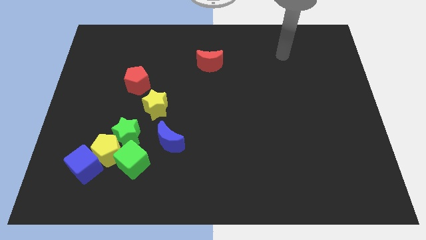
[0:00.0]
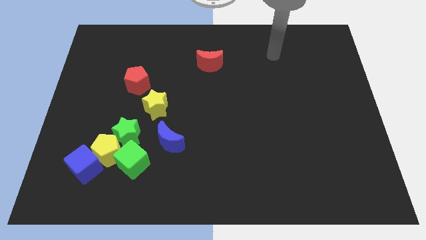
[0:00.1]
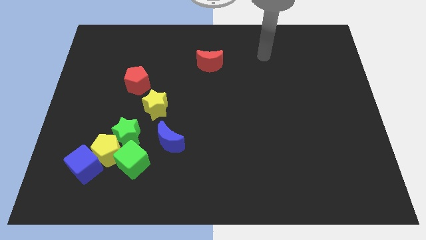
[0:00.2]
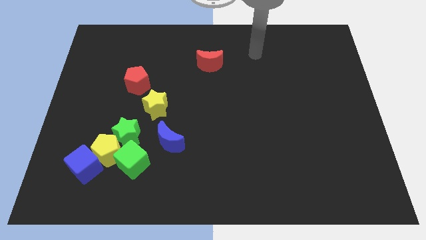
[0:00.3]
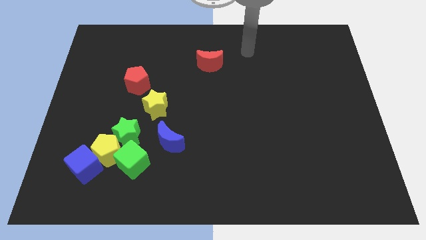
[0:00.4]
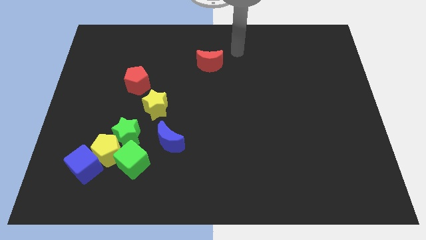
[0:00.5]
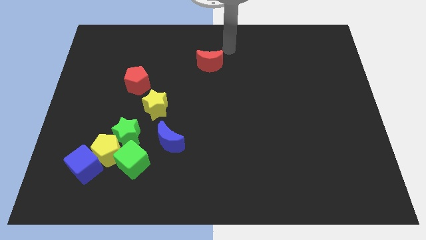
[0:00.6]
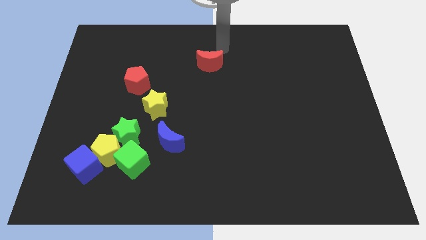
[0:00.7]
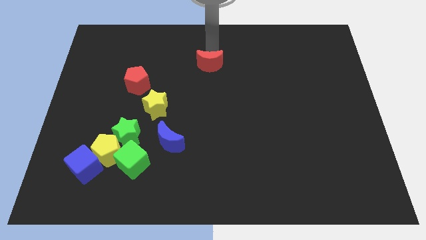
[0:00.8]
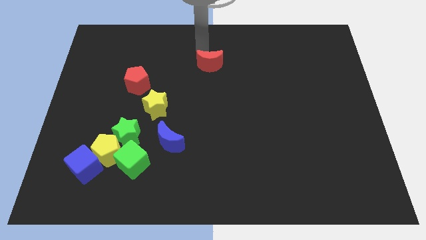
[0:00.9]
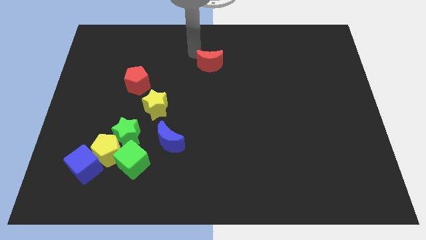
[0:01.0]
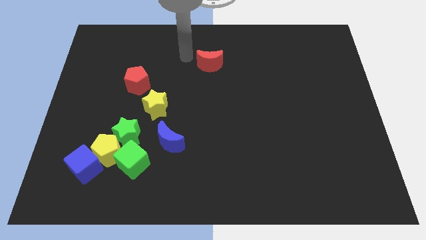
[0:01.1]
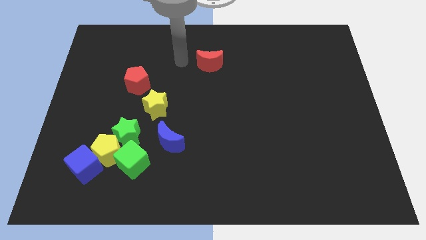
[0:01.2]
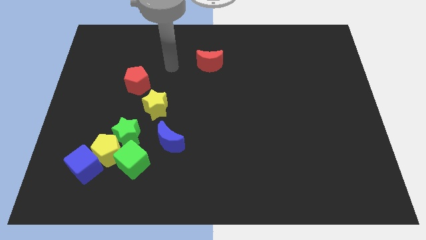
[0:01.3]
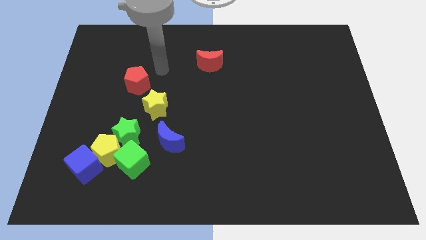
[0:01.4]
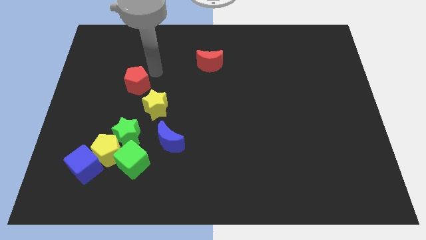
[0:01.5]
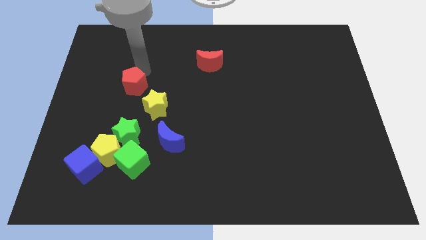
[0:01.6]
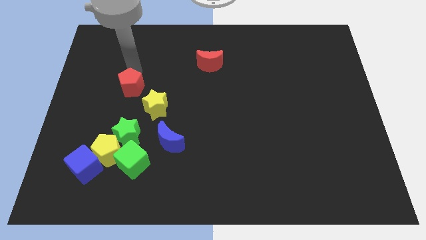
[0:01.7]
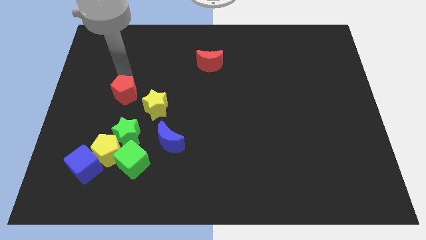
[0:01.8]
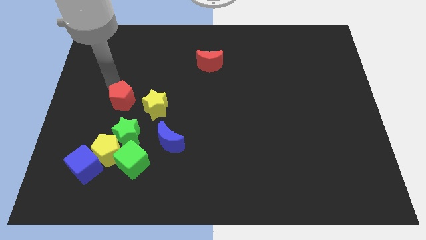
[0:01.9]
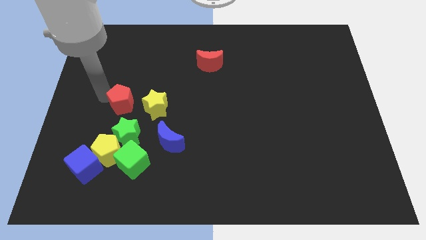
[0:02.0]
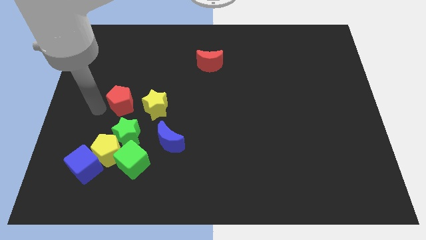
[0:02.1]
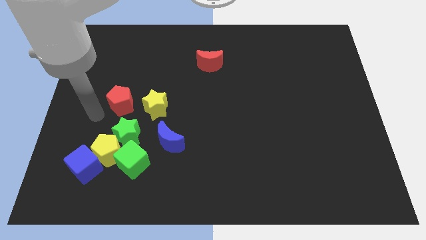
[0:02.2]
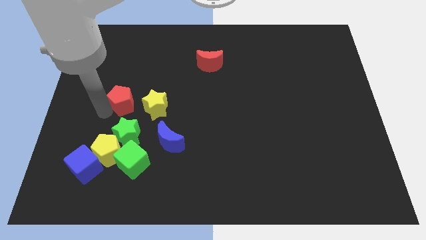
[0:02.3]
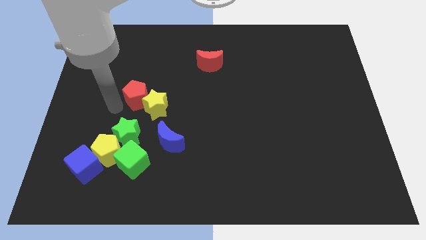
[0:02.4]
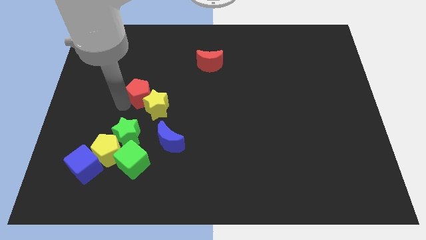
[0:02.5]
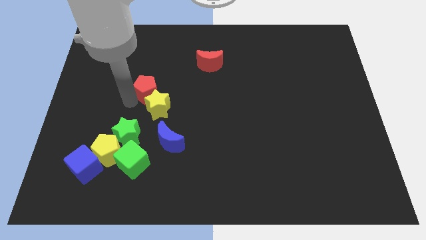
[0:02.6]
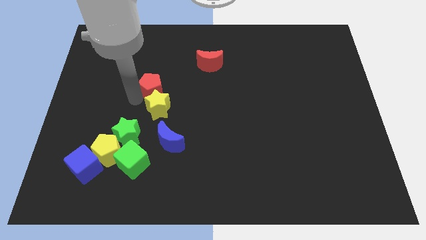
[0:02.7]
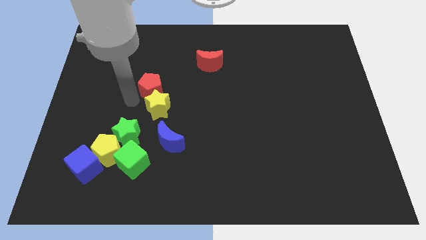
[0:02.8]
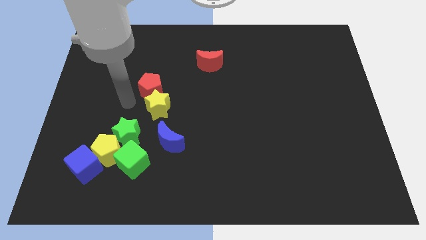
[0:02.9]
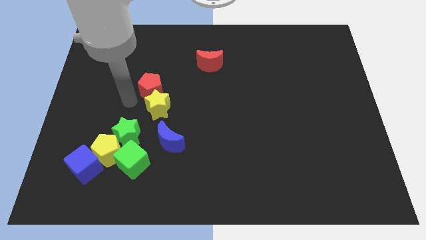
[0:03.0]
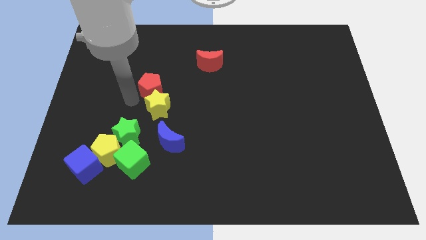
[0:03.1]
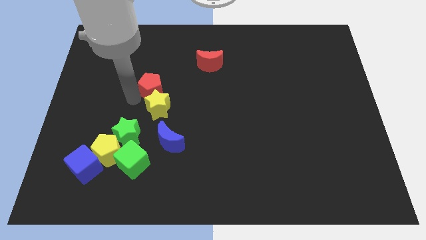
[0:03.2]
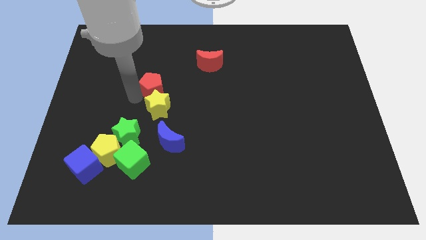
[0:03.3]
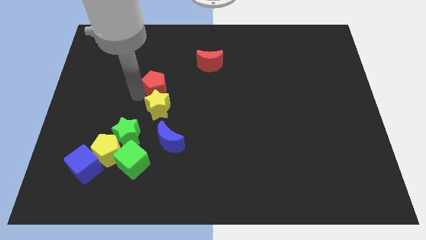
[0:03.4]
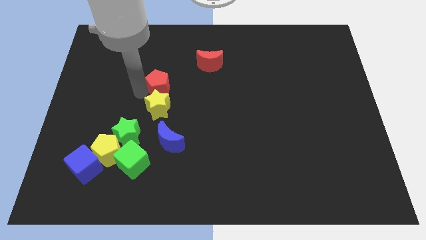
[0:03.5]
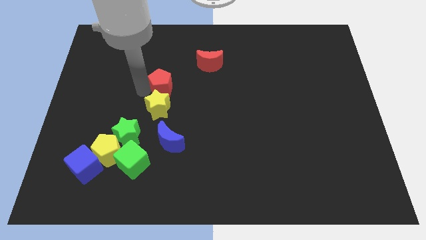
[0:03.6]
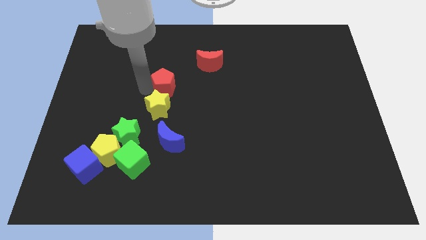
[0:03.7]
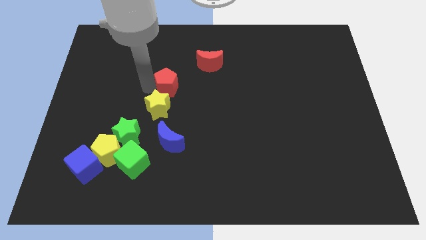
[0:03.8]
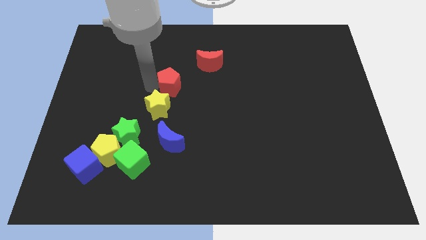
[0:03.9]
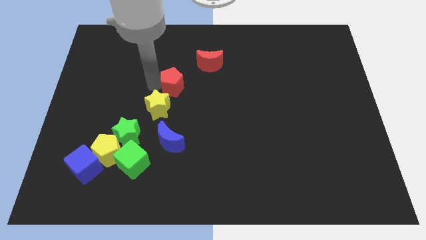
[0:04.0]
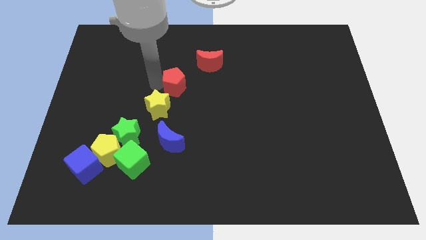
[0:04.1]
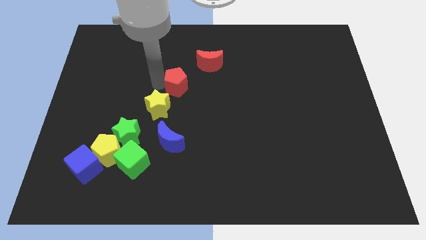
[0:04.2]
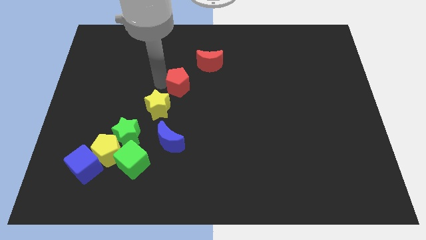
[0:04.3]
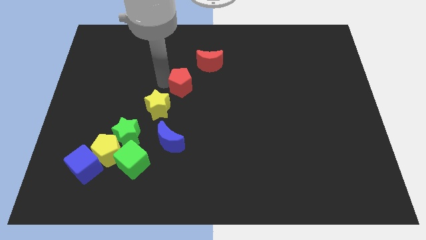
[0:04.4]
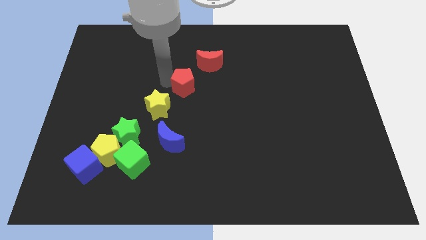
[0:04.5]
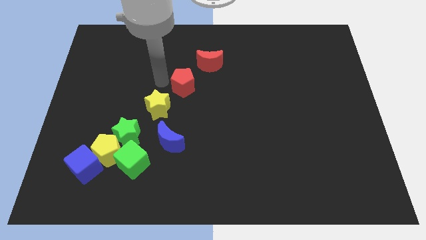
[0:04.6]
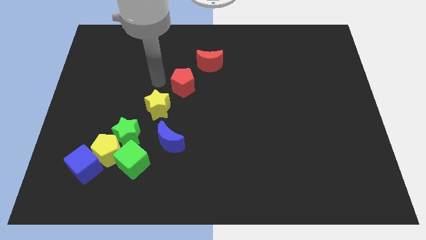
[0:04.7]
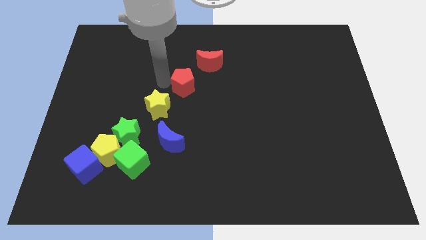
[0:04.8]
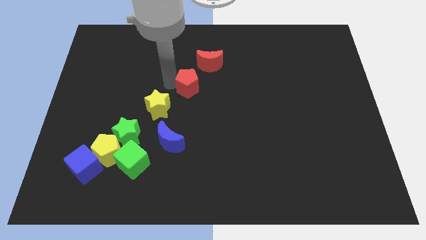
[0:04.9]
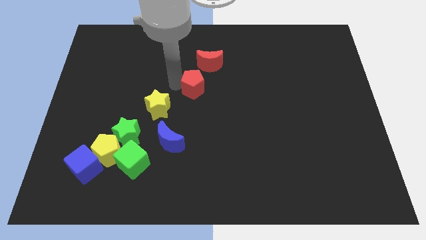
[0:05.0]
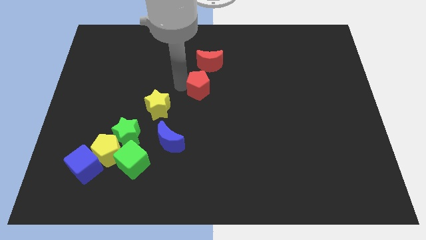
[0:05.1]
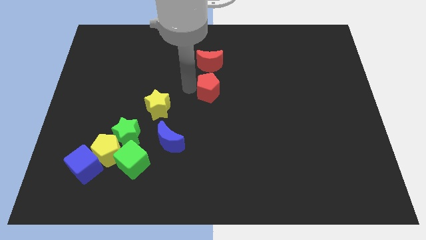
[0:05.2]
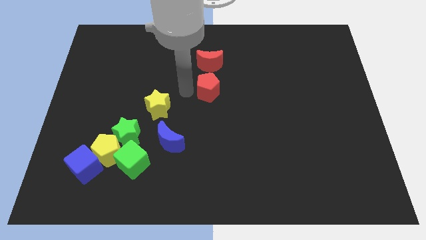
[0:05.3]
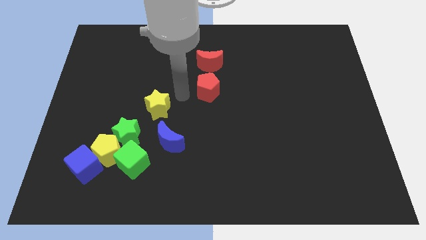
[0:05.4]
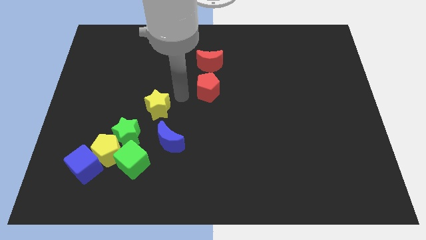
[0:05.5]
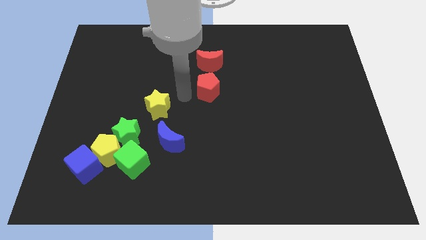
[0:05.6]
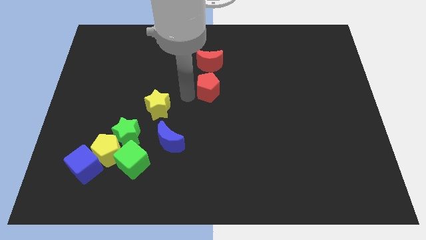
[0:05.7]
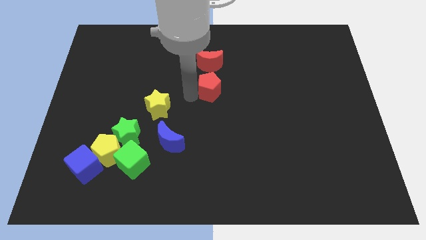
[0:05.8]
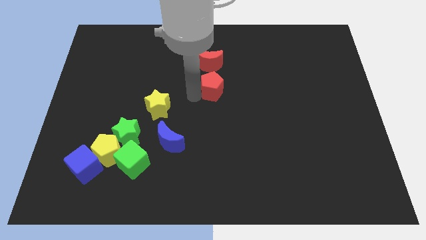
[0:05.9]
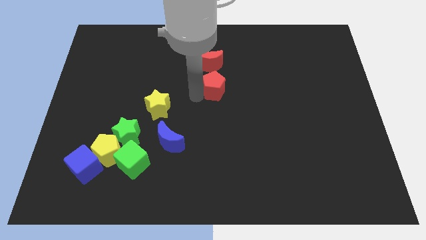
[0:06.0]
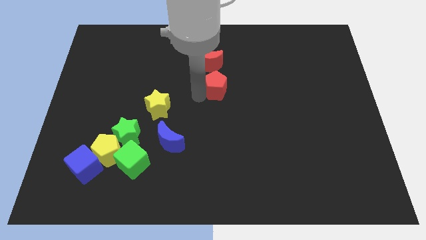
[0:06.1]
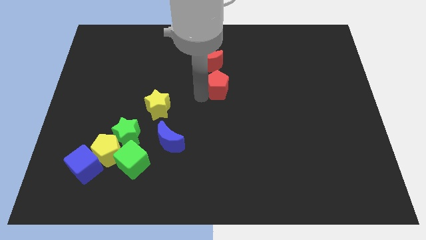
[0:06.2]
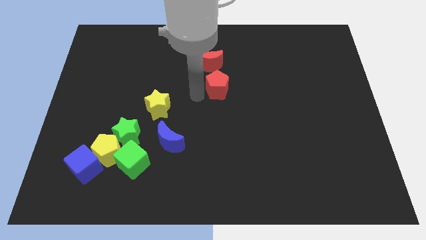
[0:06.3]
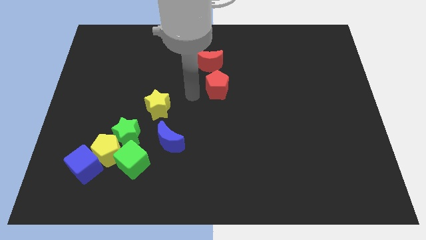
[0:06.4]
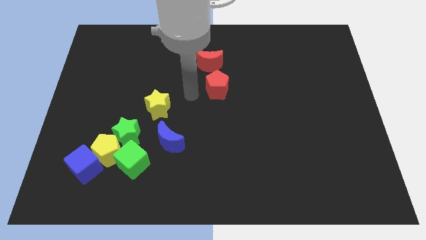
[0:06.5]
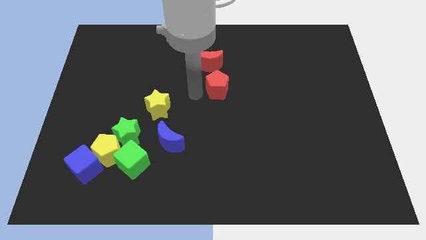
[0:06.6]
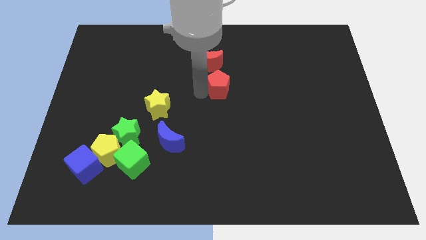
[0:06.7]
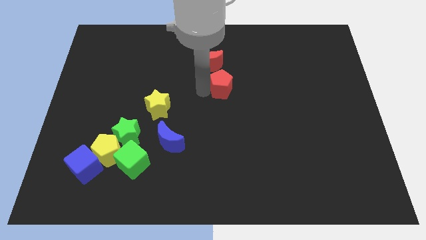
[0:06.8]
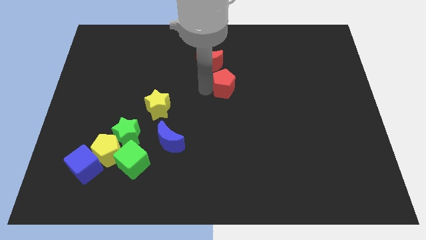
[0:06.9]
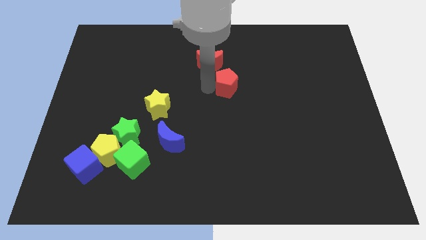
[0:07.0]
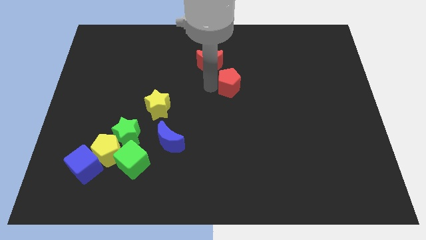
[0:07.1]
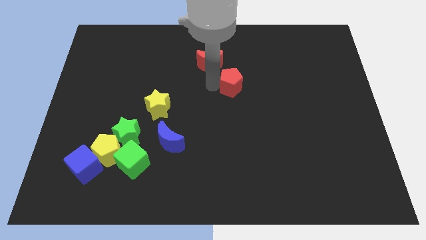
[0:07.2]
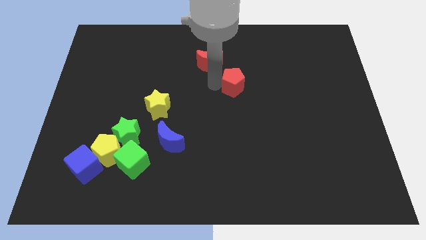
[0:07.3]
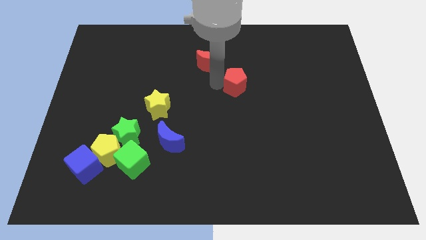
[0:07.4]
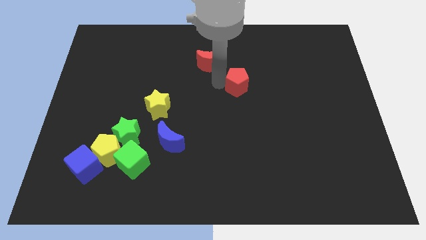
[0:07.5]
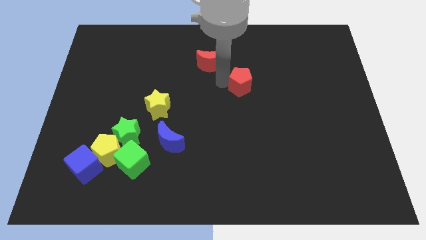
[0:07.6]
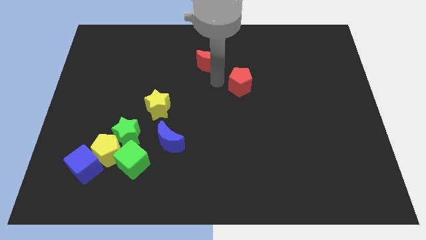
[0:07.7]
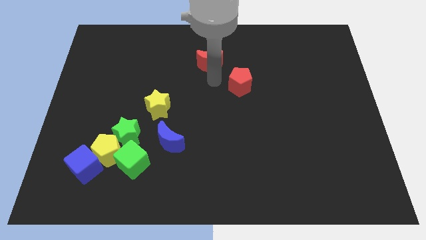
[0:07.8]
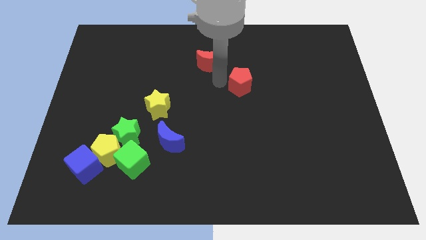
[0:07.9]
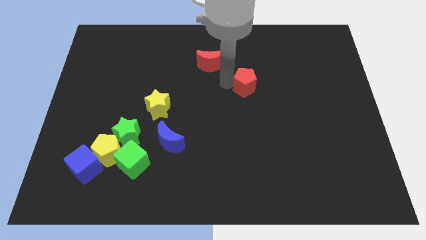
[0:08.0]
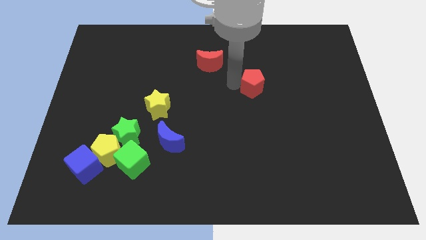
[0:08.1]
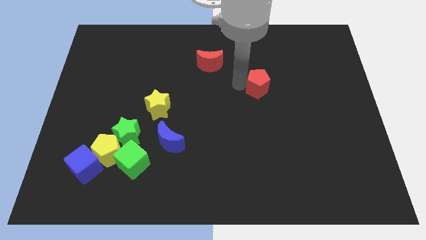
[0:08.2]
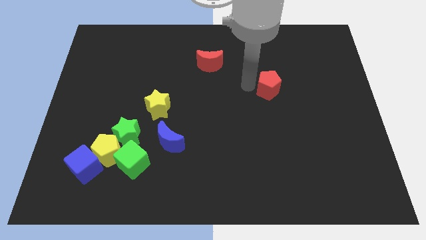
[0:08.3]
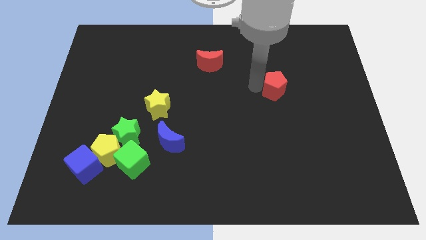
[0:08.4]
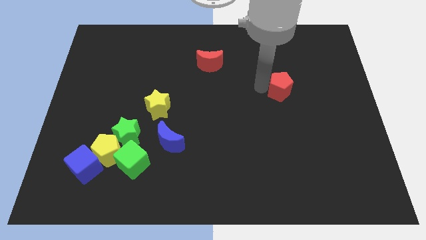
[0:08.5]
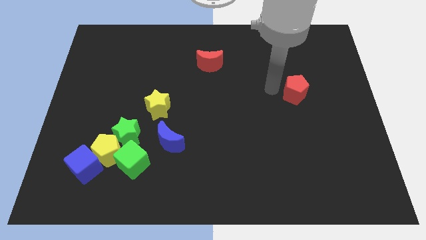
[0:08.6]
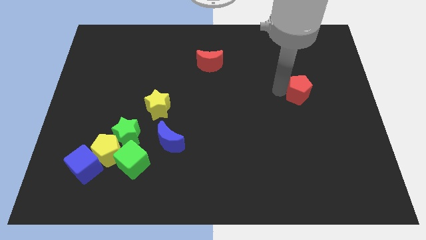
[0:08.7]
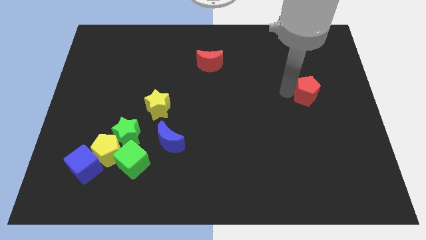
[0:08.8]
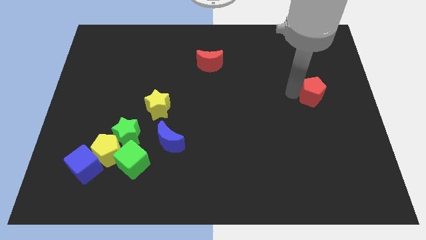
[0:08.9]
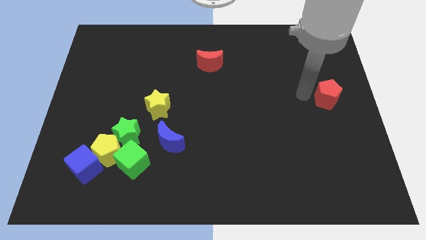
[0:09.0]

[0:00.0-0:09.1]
slide the red pentagon to the center right
